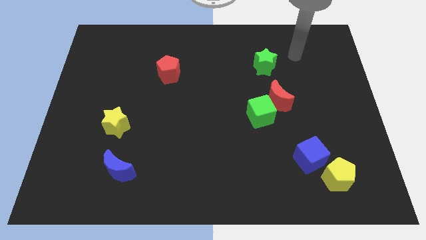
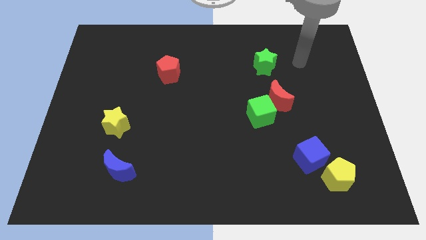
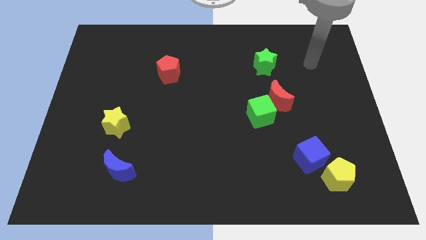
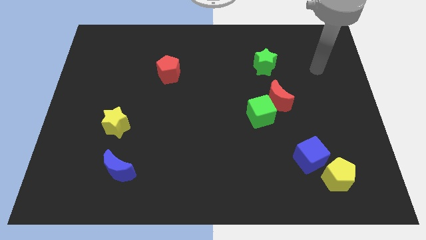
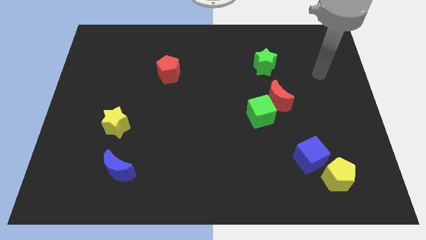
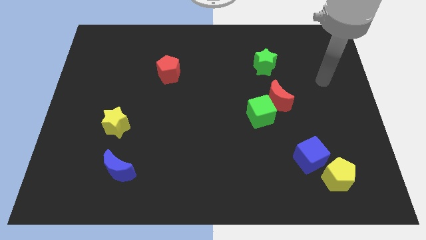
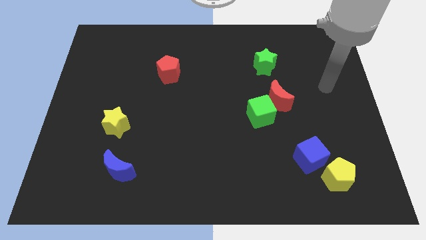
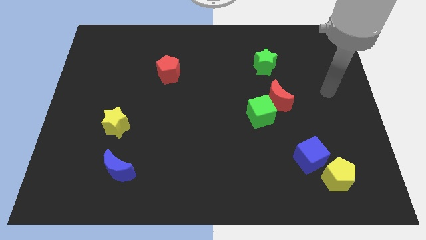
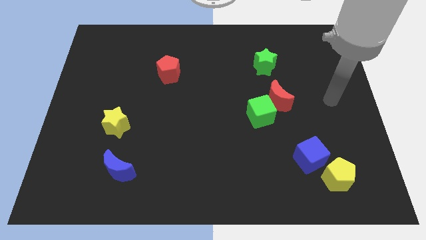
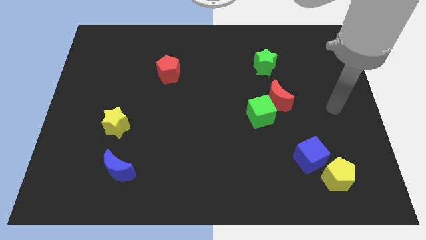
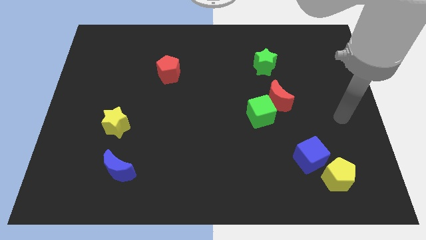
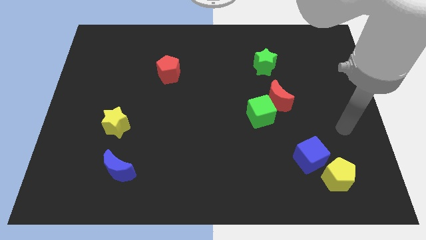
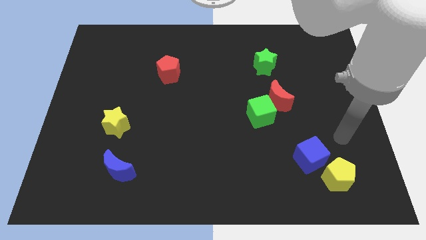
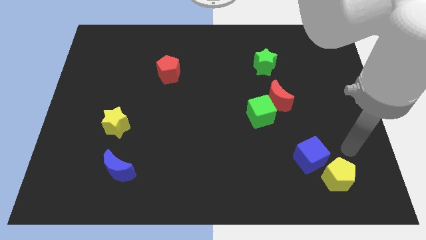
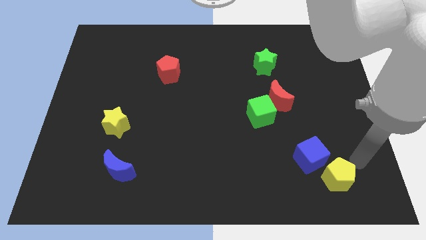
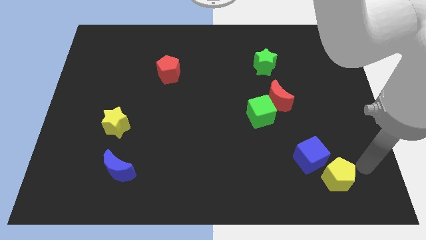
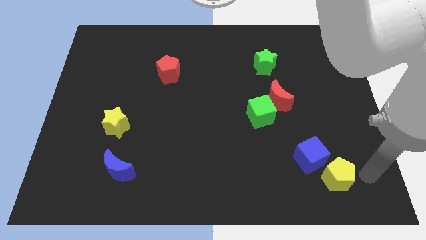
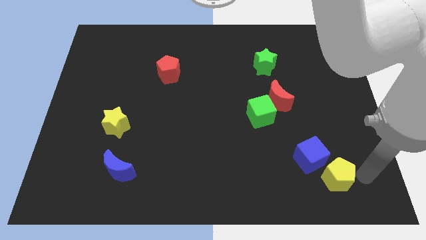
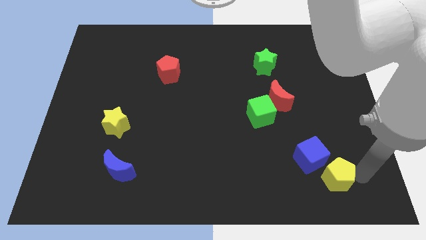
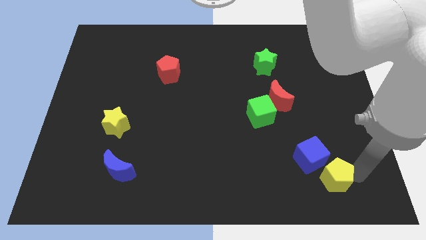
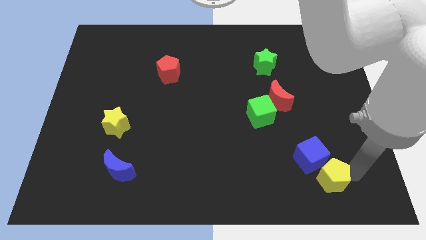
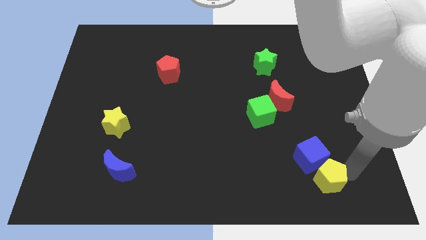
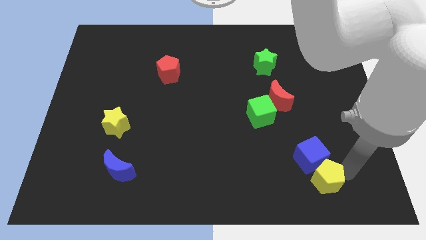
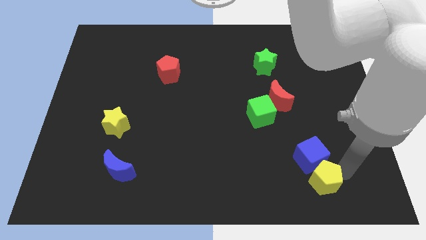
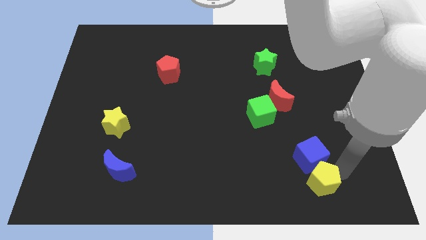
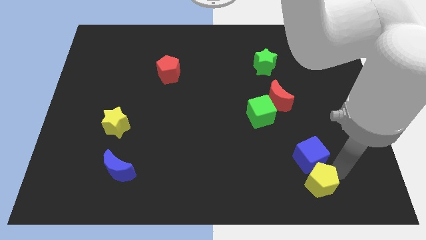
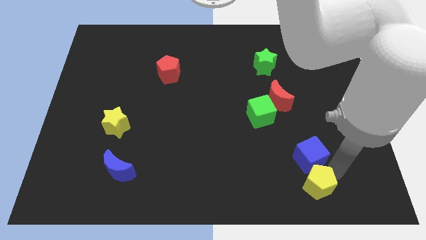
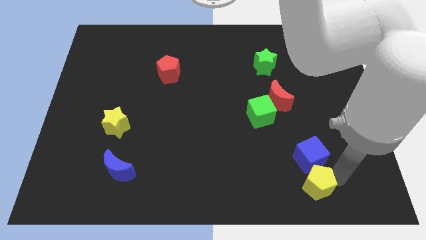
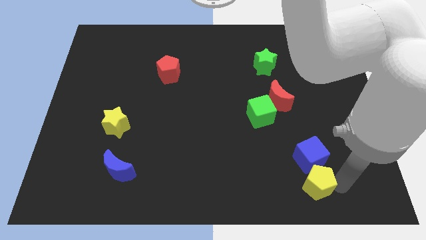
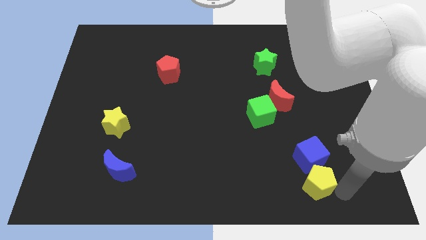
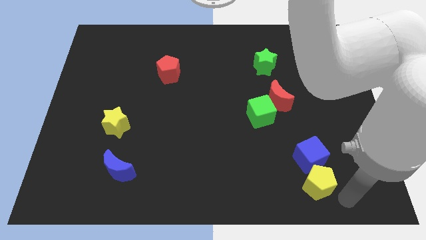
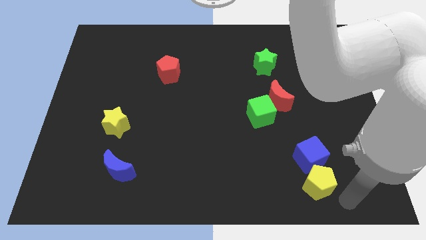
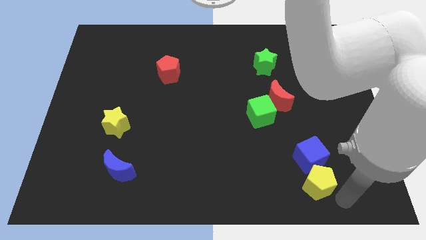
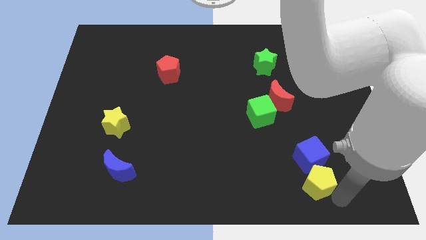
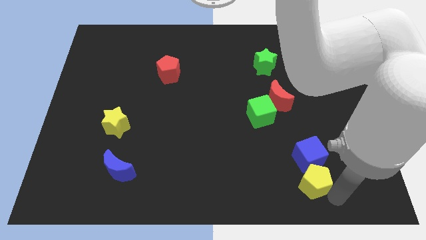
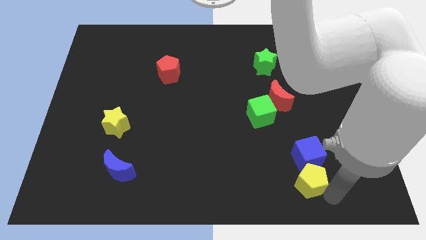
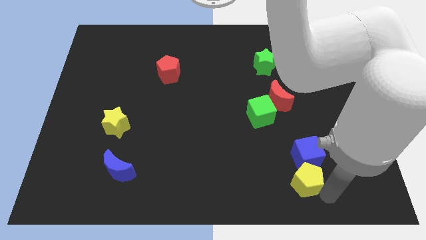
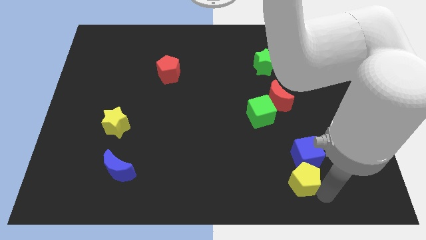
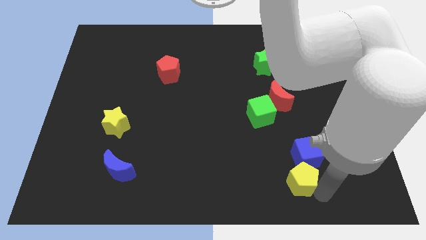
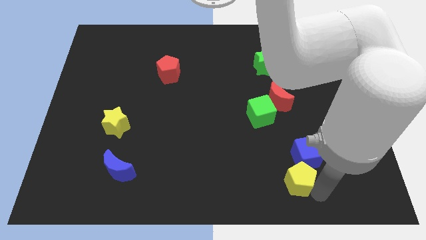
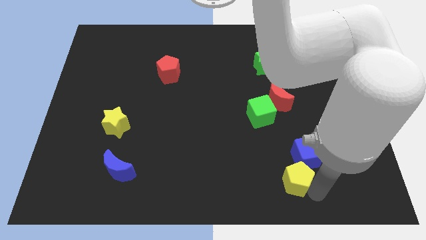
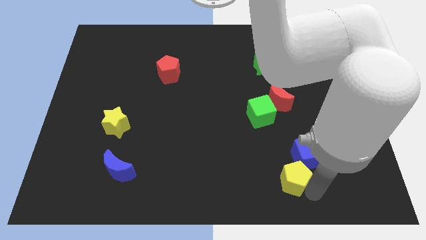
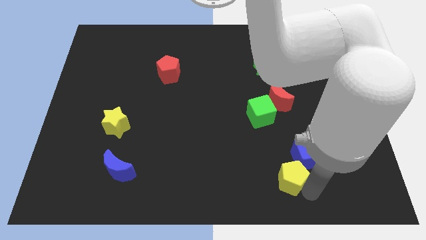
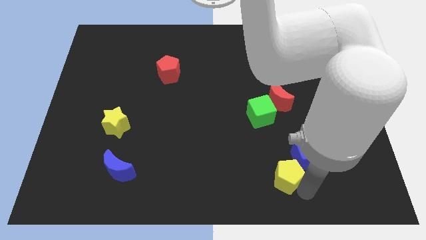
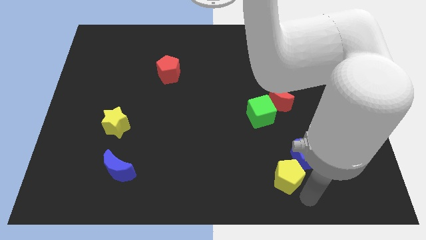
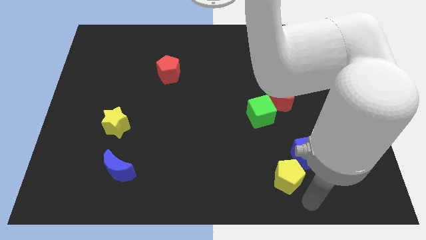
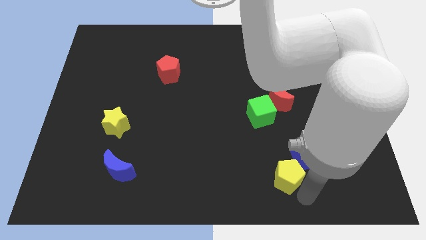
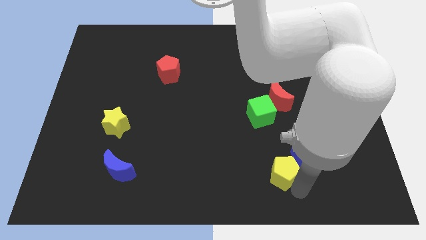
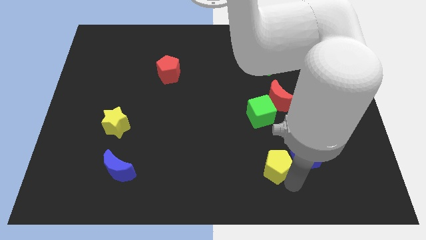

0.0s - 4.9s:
slide the yellow pentagon to the bottom side of the green cube

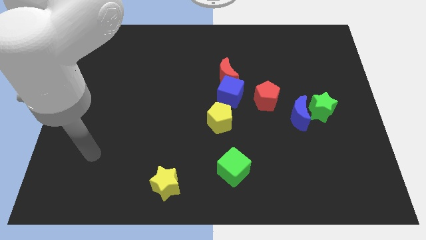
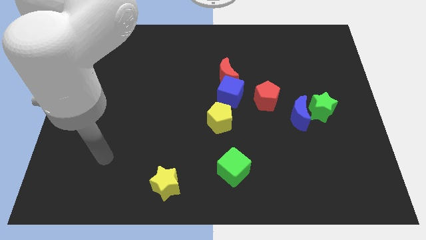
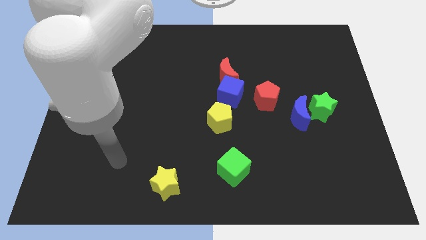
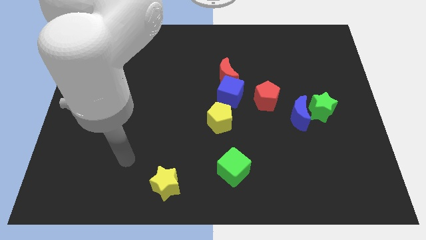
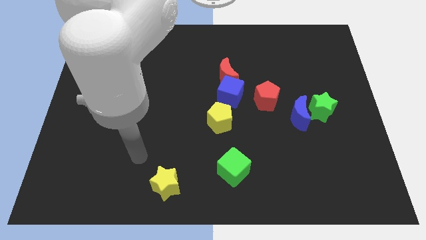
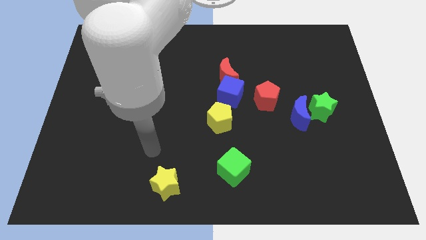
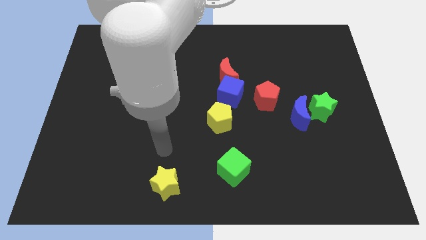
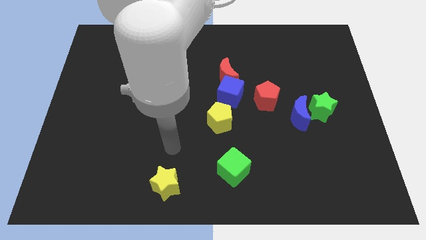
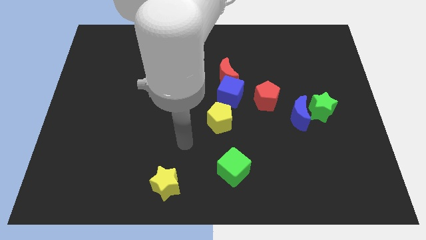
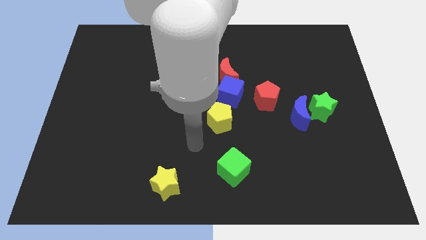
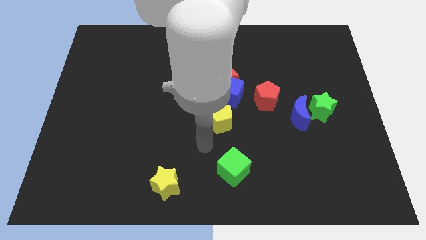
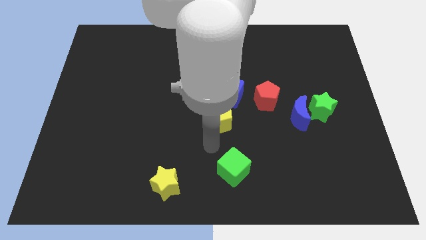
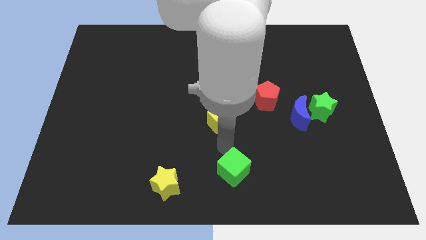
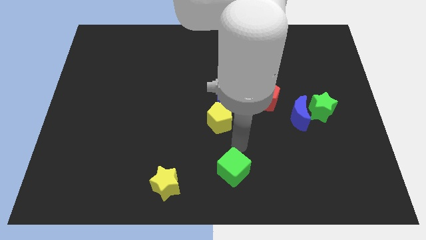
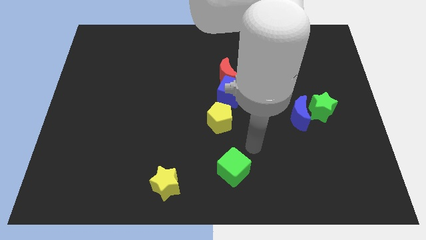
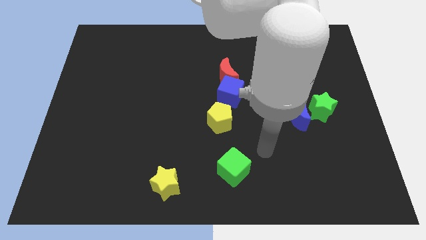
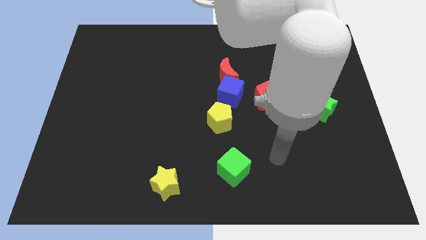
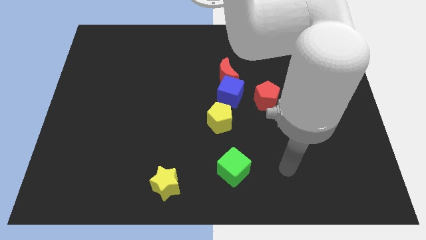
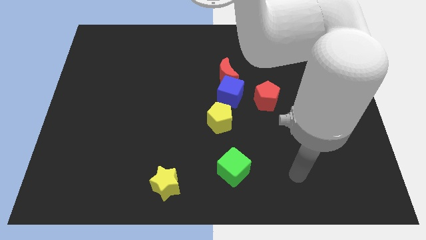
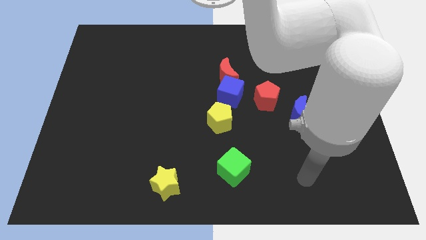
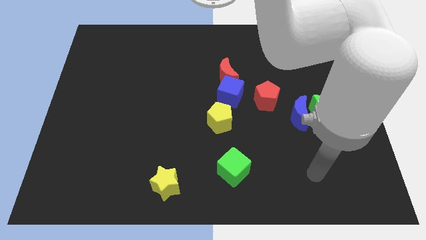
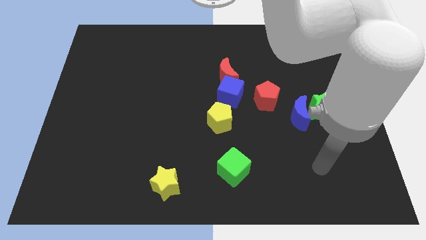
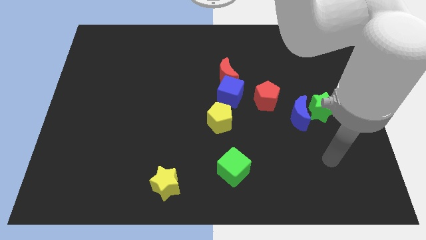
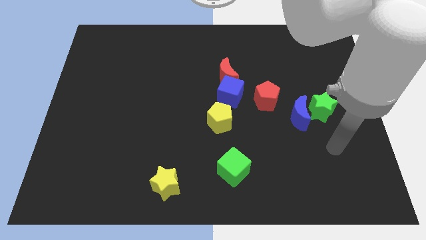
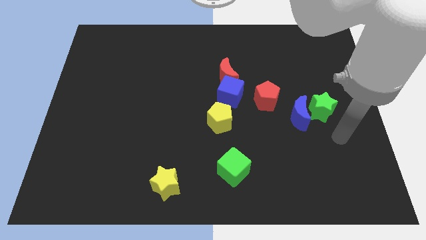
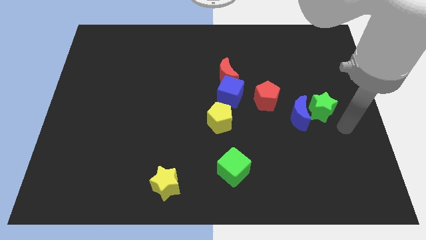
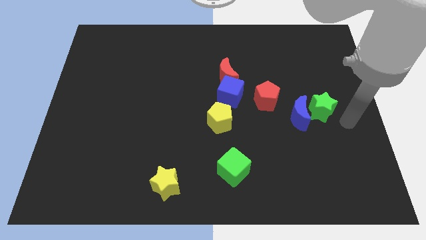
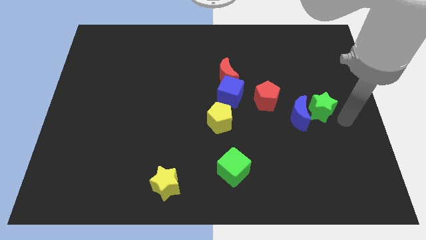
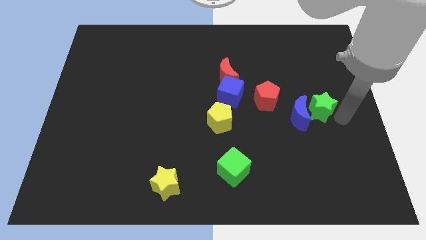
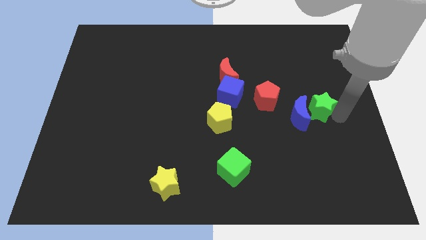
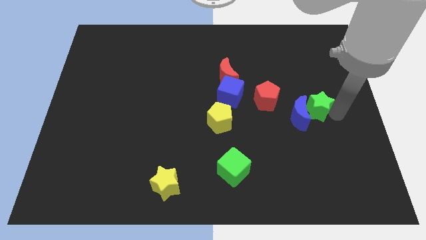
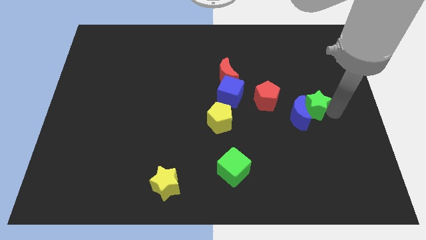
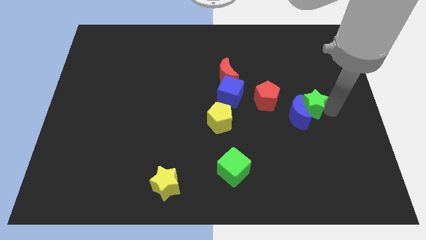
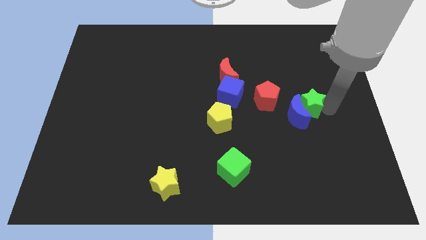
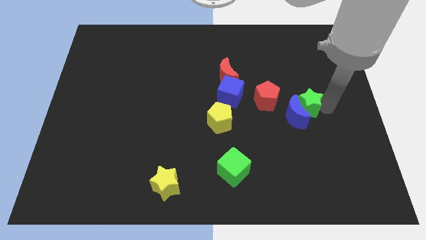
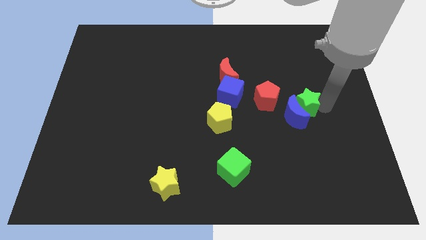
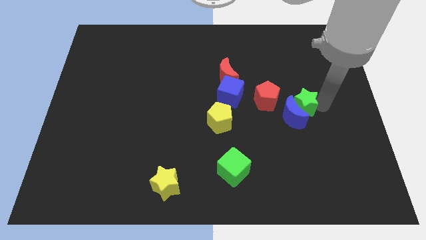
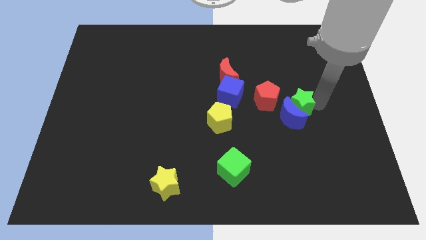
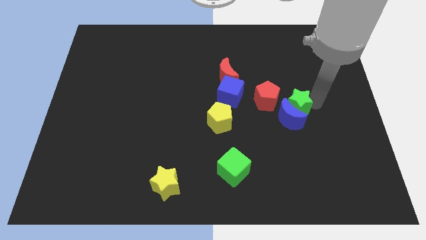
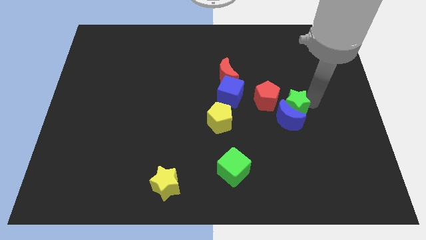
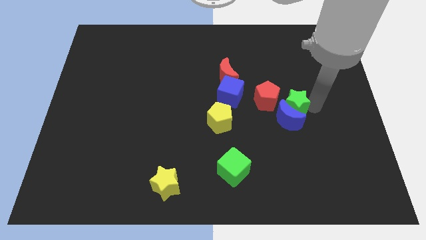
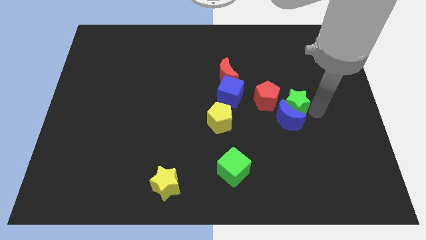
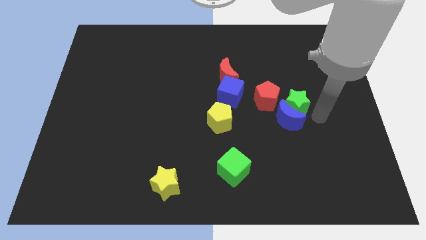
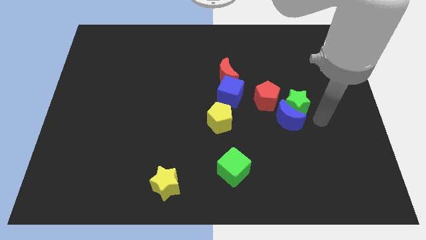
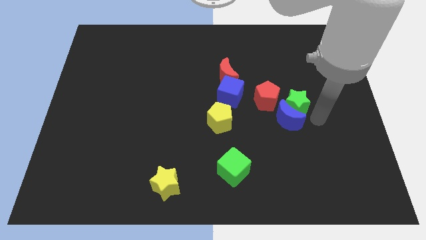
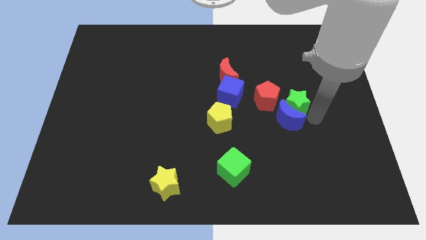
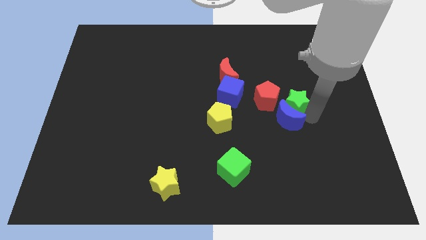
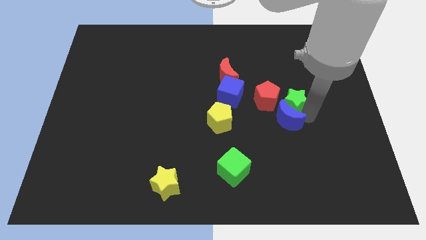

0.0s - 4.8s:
push the green star just right of the blue cube
